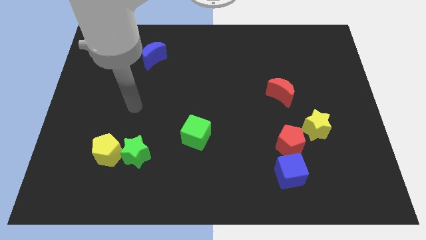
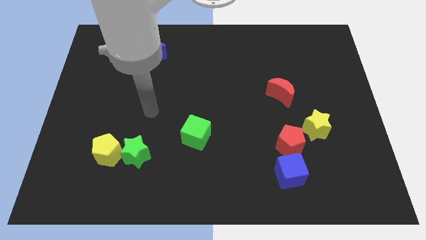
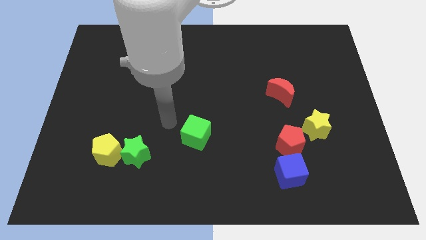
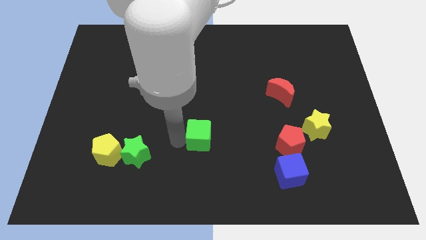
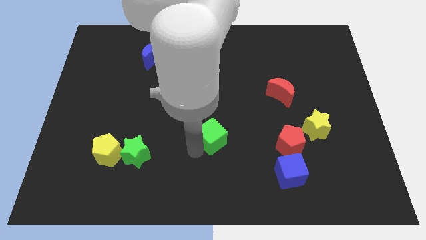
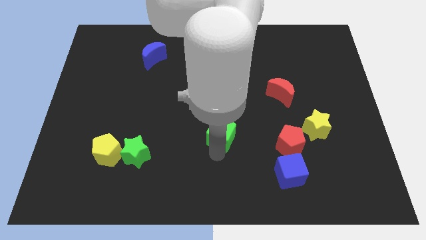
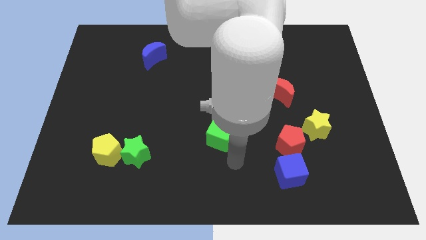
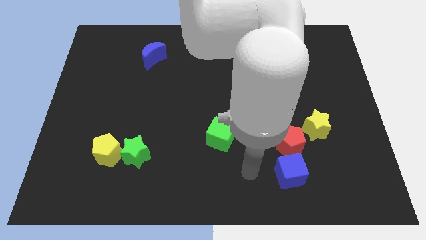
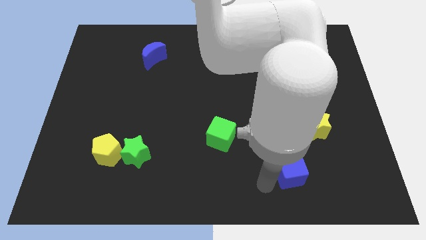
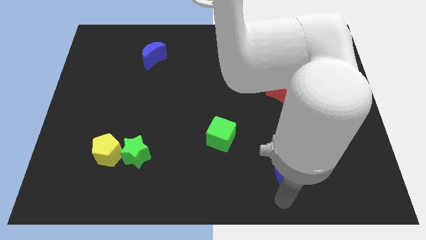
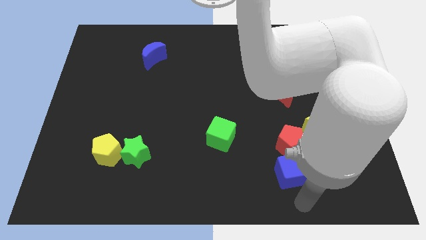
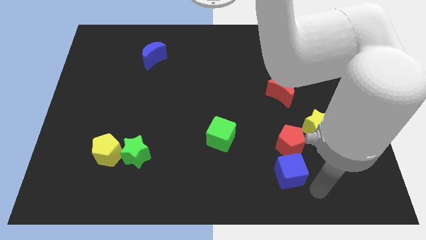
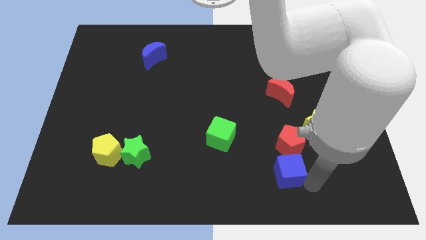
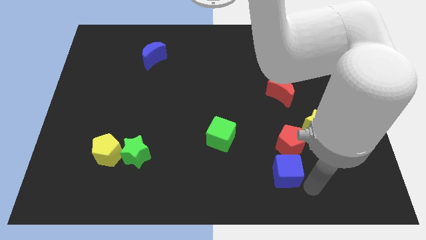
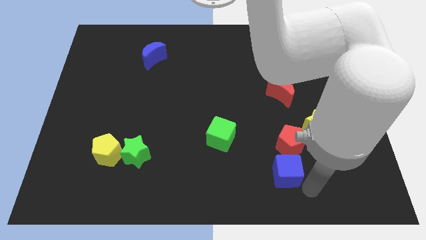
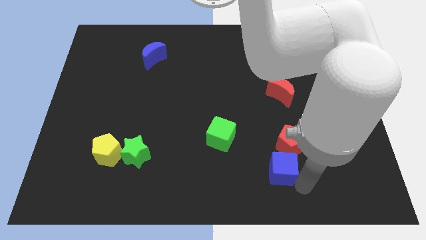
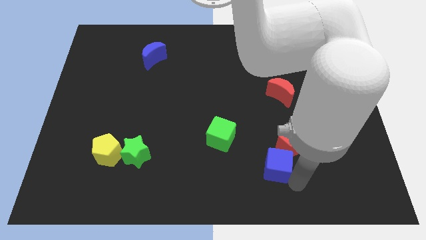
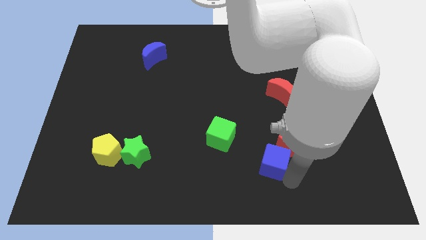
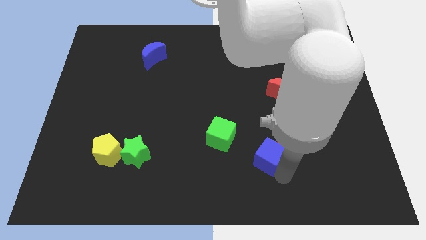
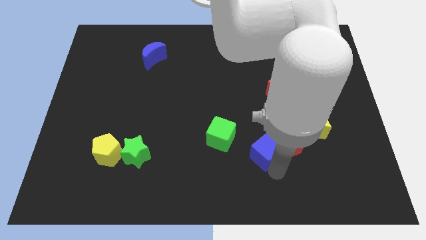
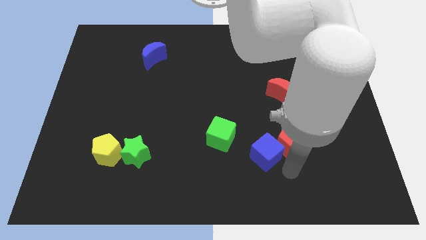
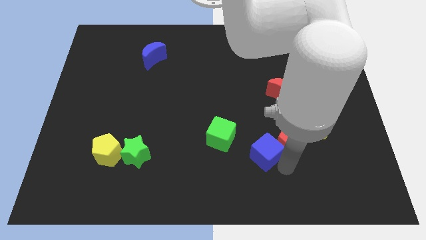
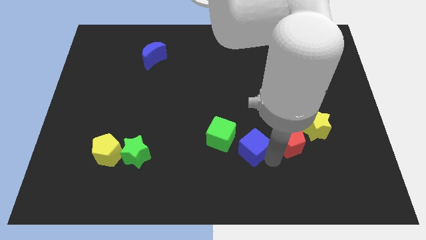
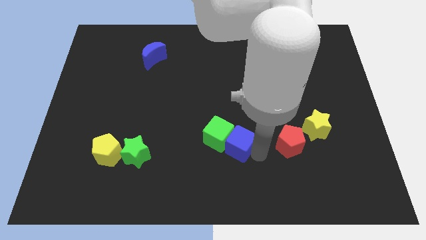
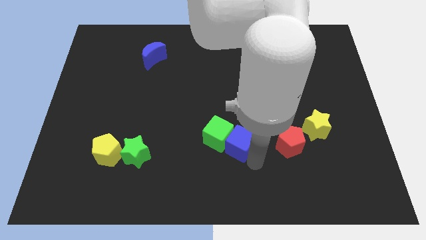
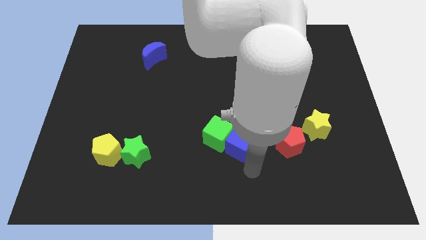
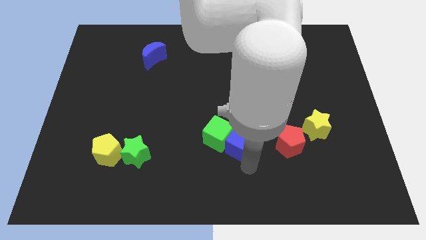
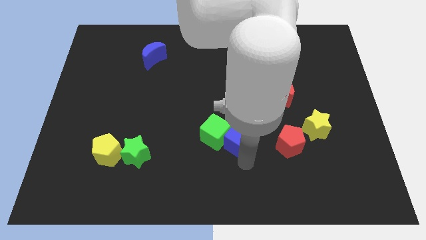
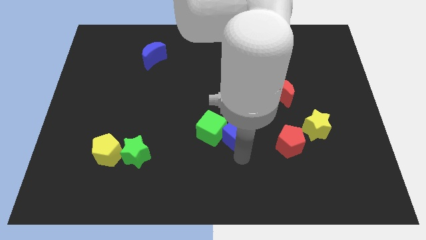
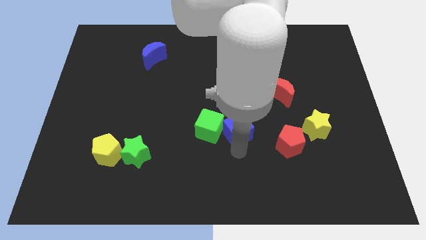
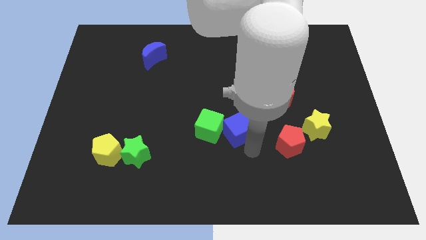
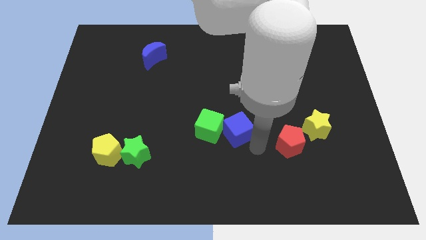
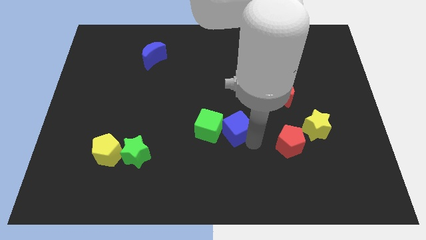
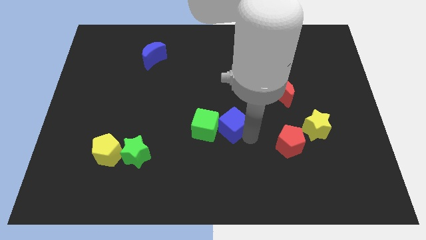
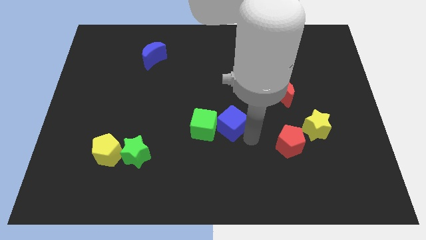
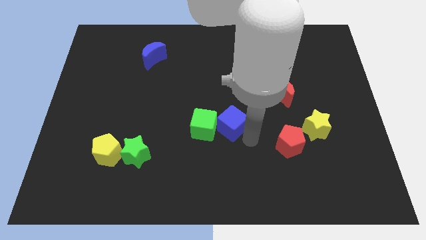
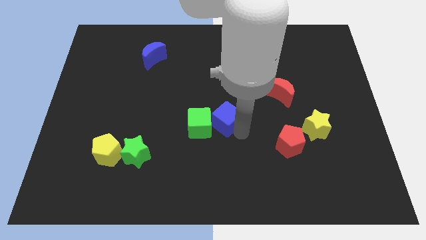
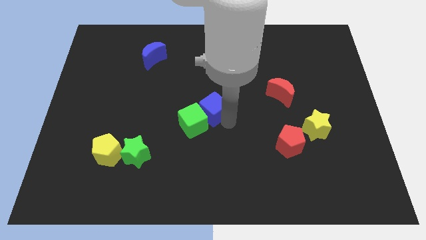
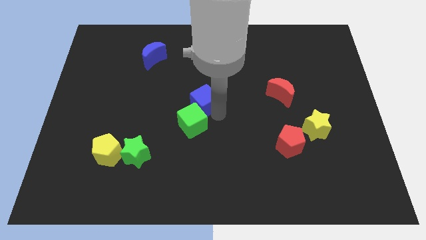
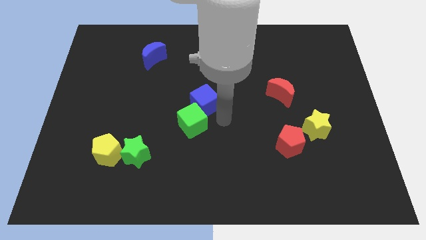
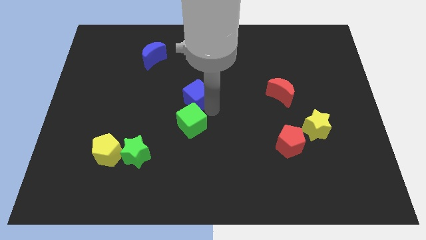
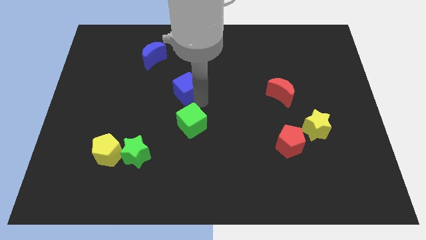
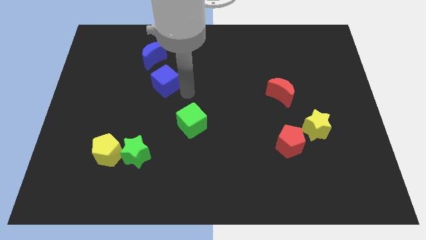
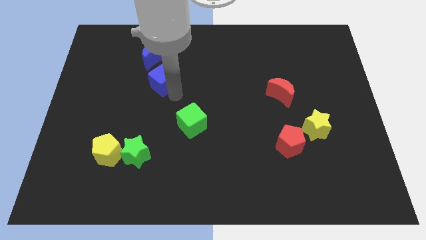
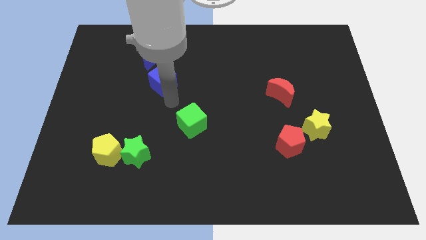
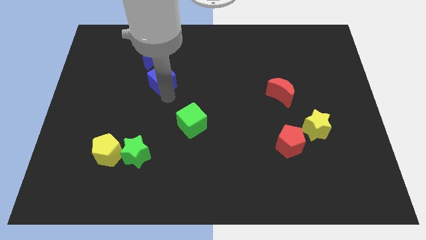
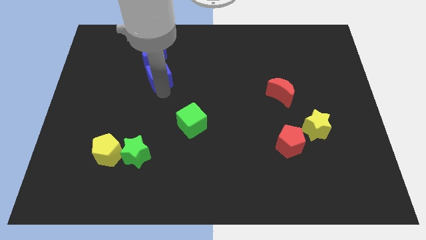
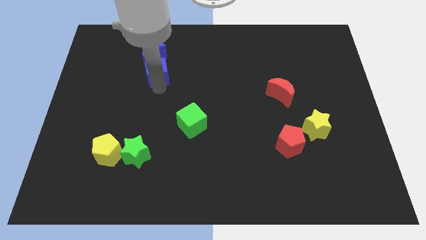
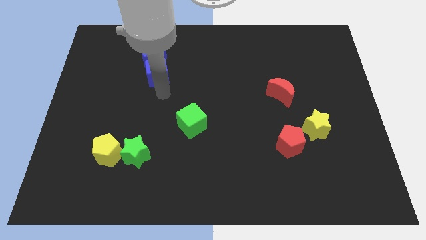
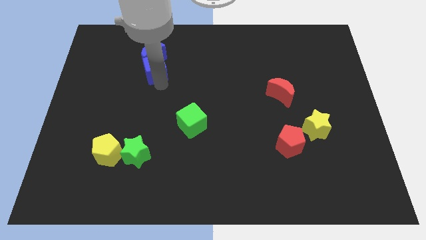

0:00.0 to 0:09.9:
push the blue cube next to the blue moon

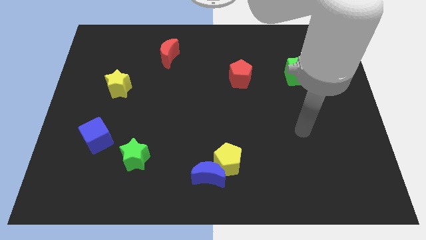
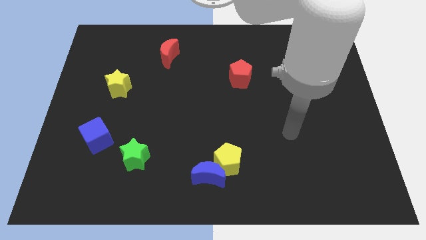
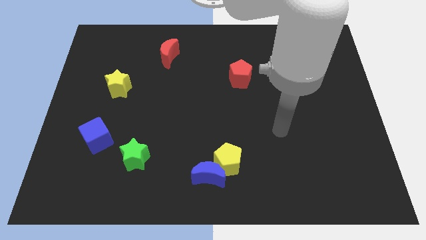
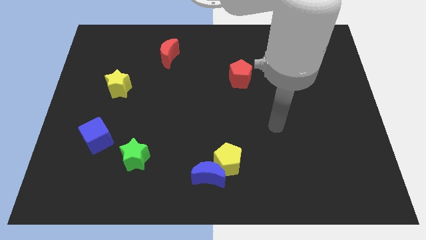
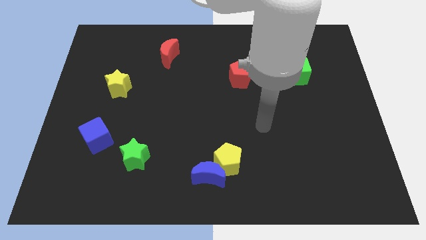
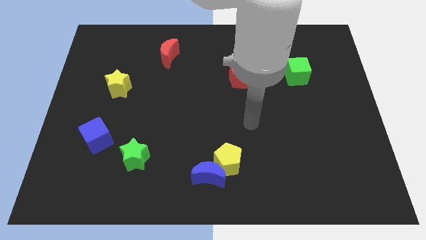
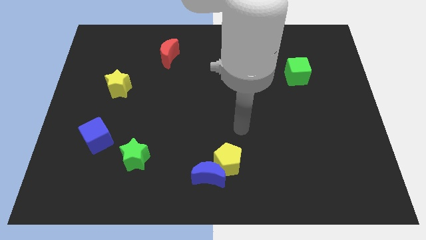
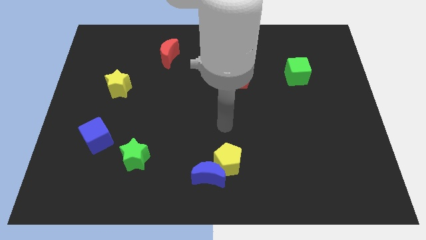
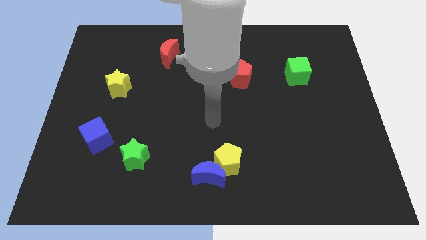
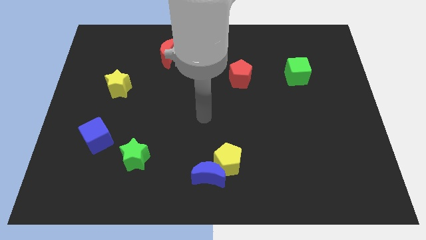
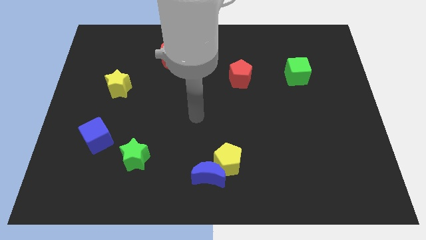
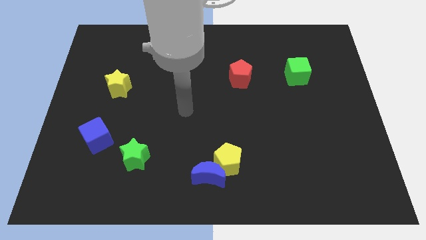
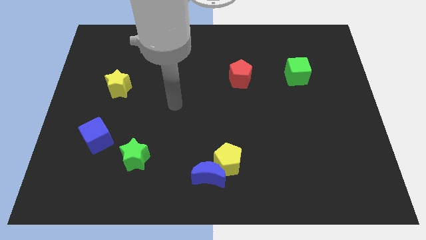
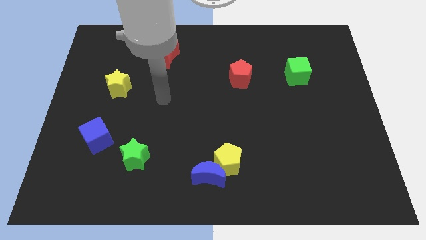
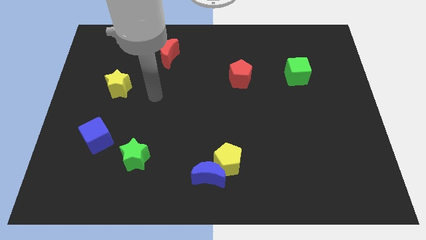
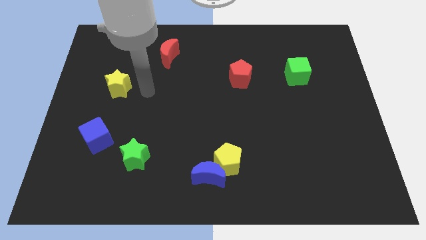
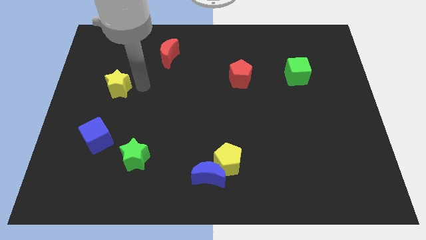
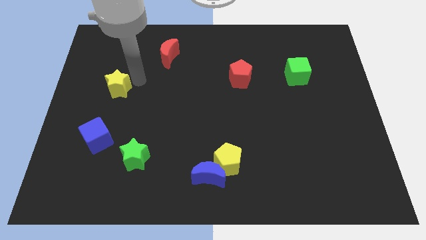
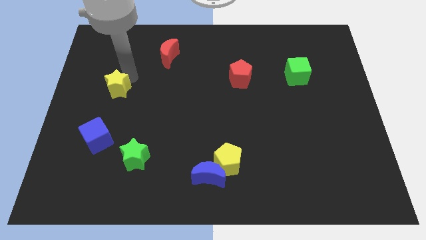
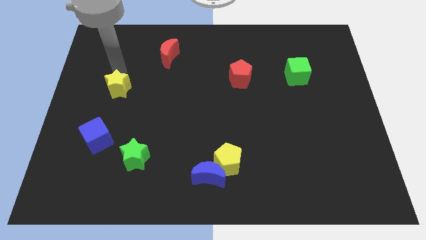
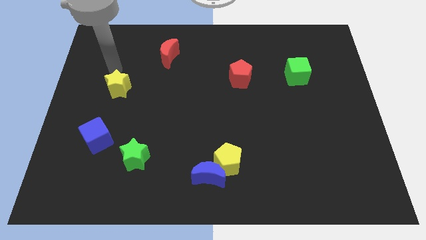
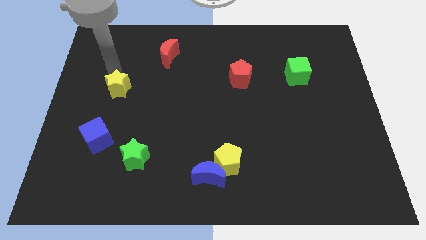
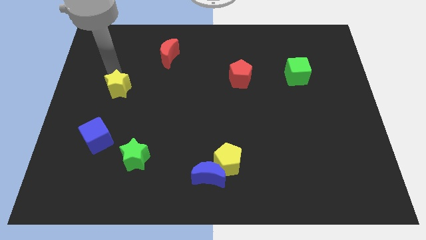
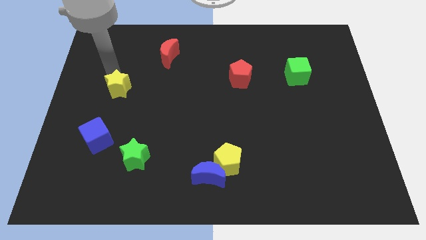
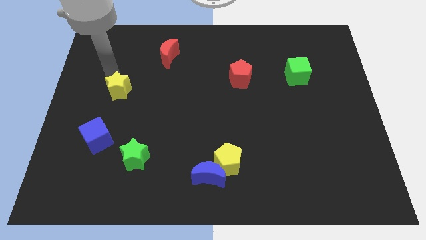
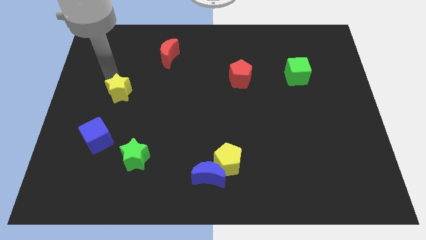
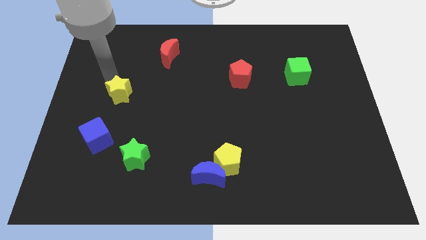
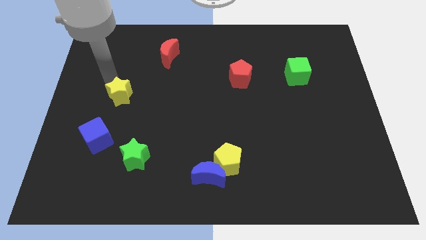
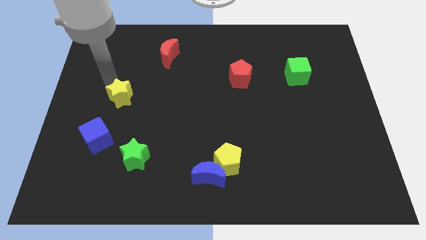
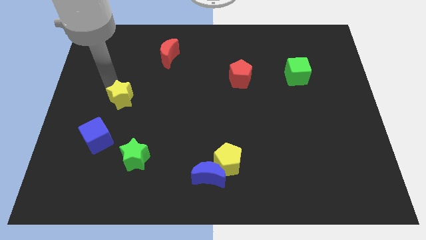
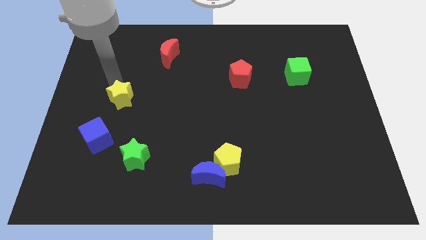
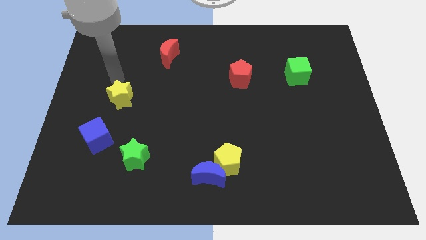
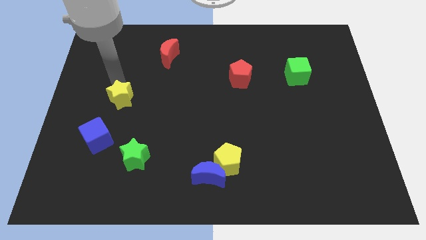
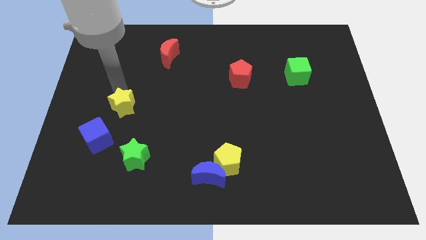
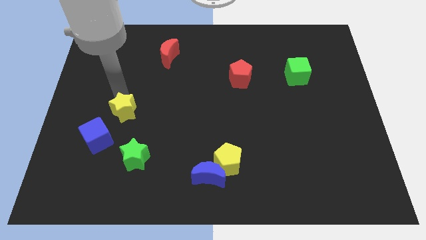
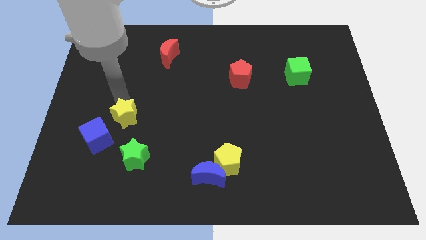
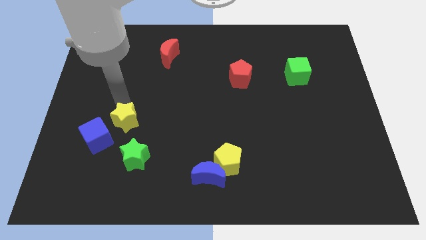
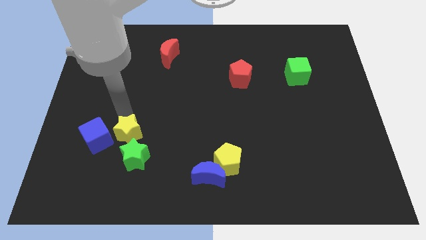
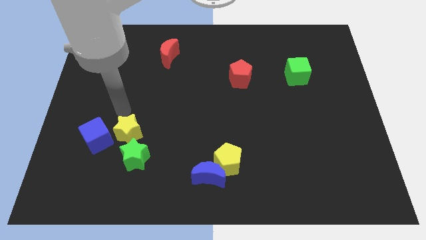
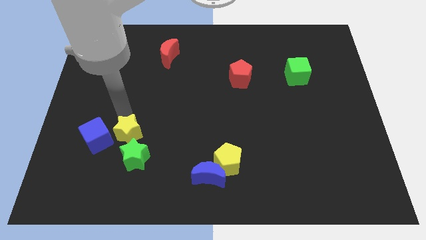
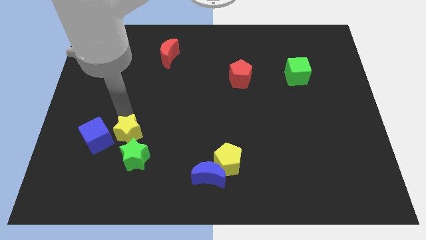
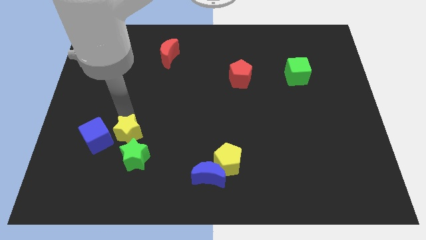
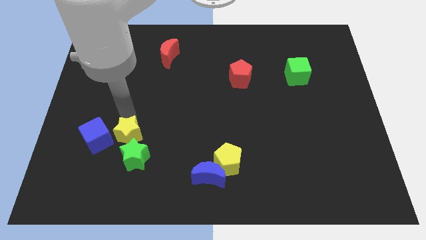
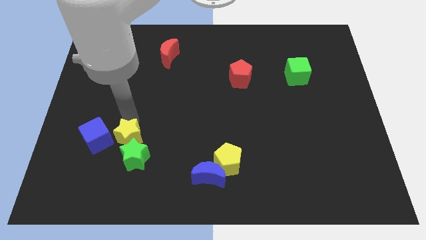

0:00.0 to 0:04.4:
move the yellow star close to the green star
